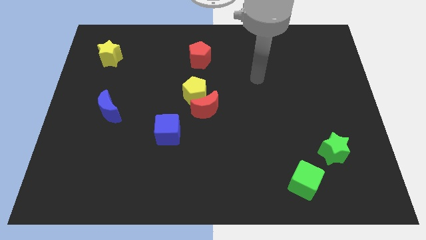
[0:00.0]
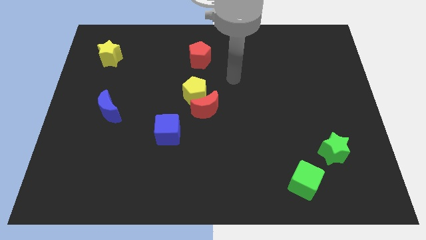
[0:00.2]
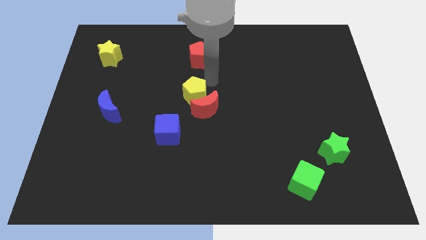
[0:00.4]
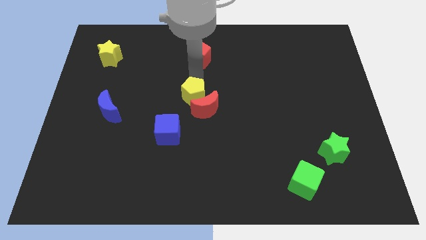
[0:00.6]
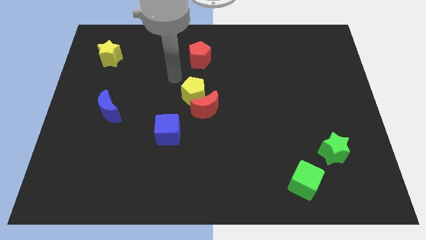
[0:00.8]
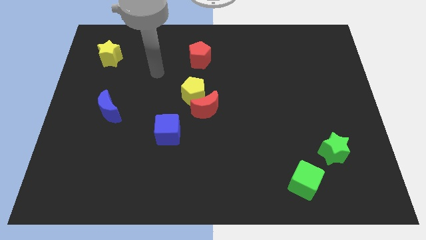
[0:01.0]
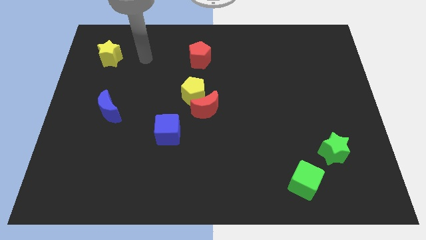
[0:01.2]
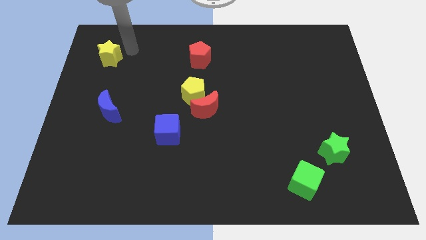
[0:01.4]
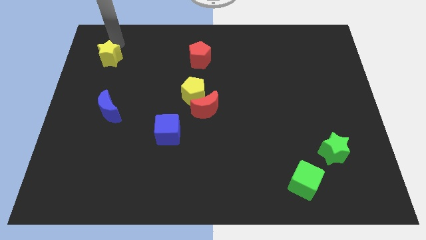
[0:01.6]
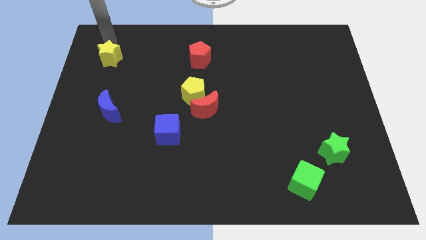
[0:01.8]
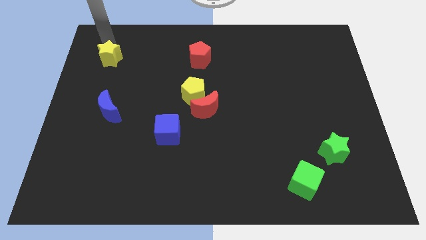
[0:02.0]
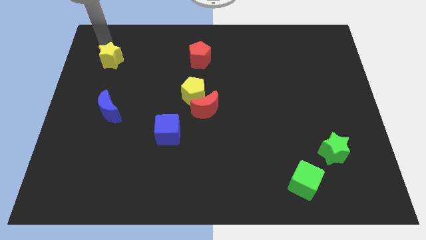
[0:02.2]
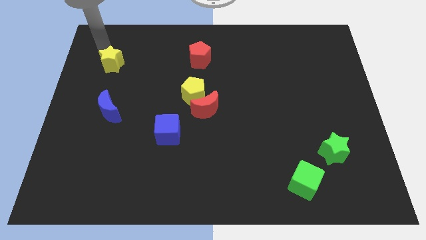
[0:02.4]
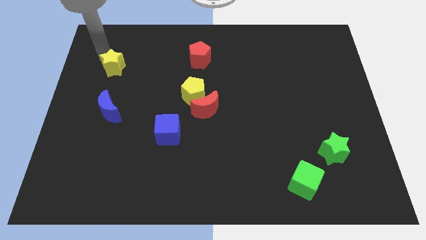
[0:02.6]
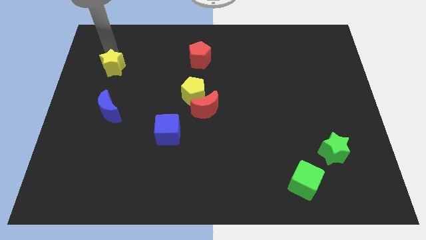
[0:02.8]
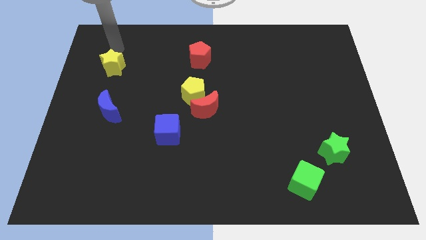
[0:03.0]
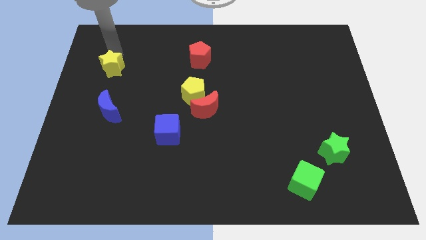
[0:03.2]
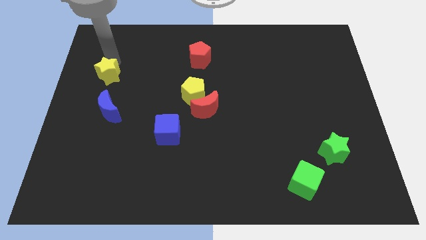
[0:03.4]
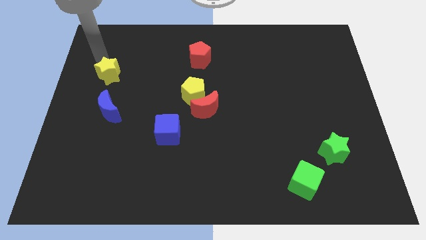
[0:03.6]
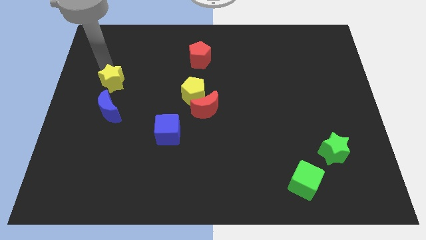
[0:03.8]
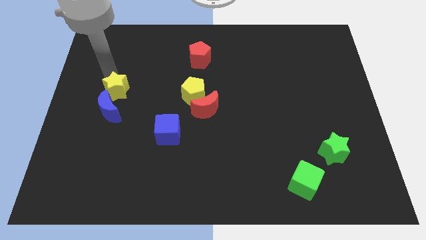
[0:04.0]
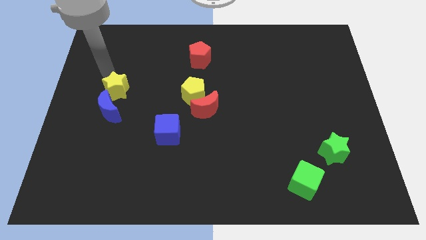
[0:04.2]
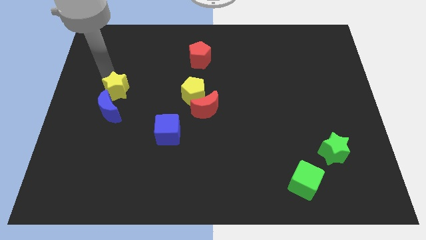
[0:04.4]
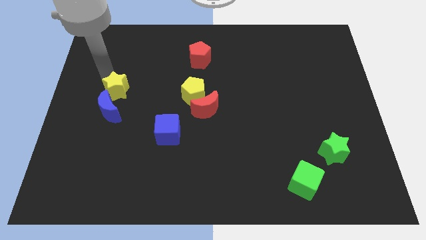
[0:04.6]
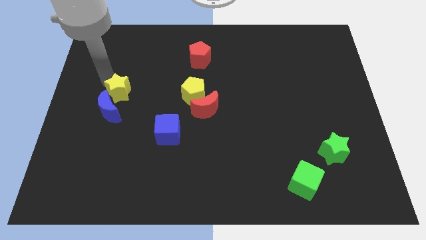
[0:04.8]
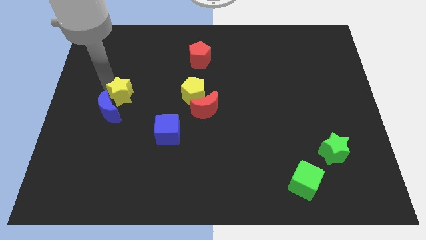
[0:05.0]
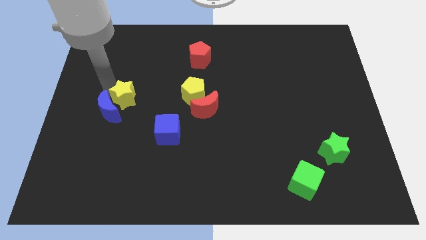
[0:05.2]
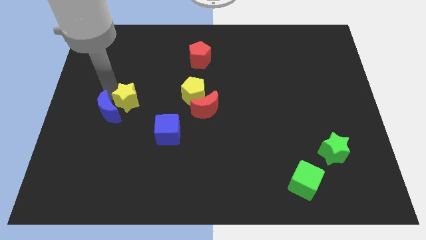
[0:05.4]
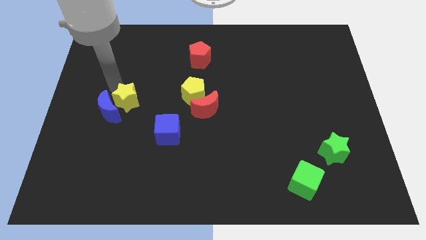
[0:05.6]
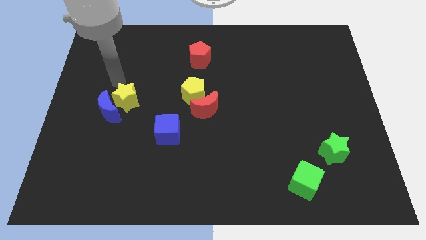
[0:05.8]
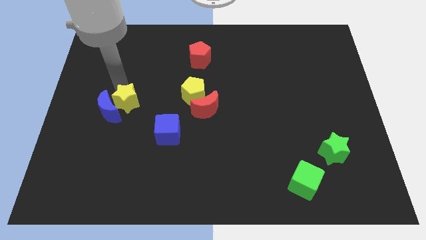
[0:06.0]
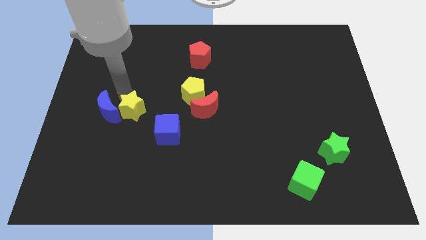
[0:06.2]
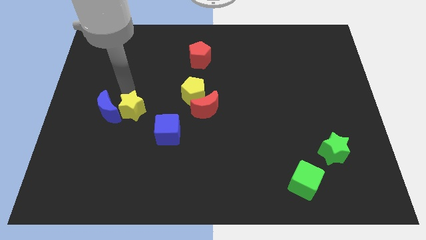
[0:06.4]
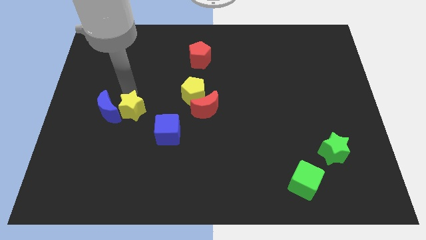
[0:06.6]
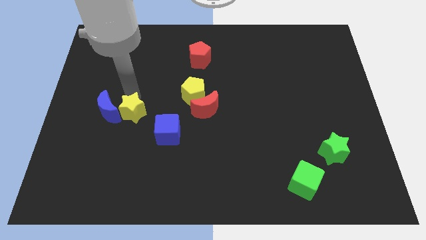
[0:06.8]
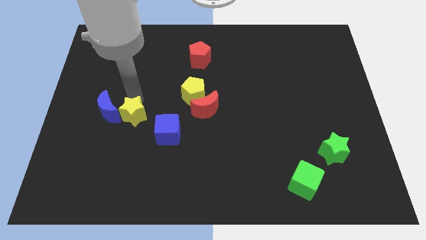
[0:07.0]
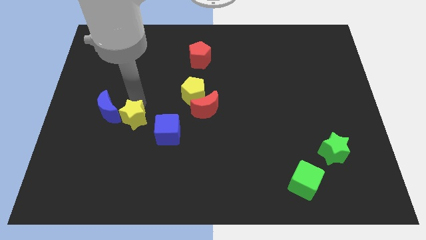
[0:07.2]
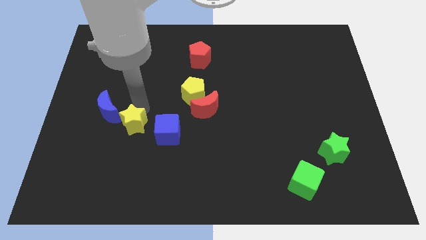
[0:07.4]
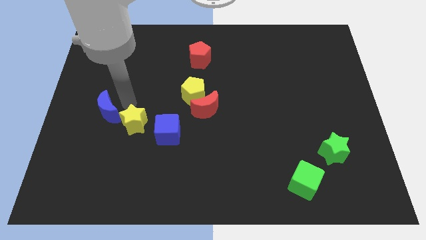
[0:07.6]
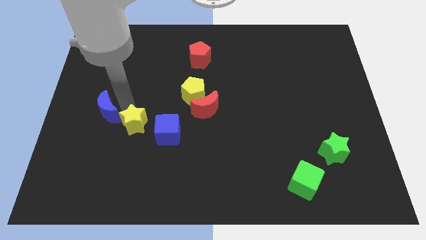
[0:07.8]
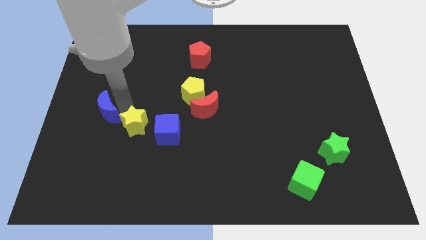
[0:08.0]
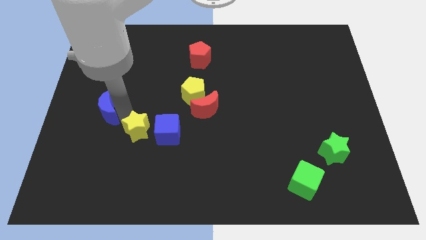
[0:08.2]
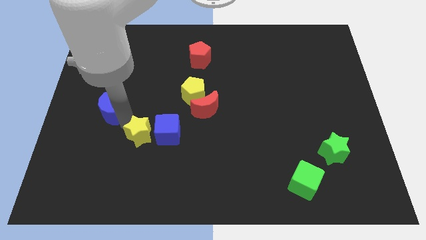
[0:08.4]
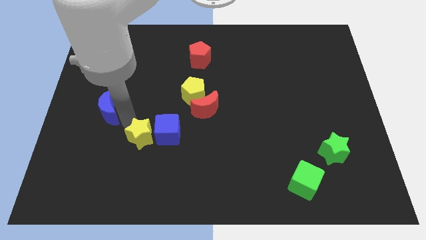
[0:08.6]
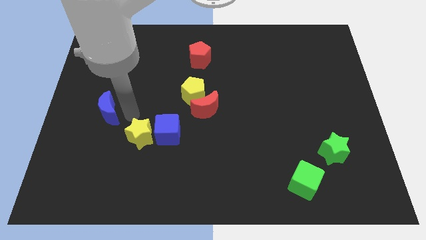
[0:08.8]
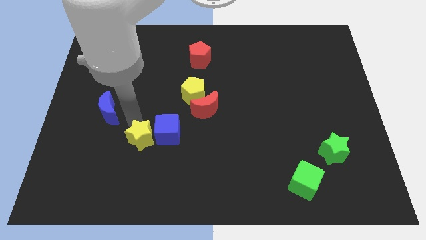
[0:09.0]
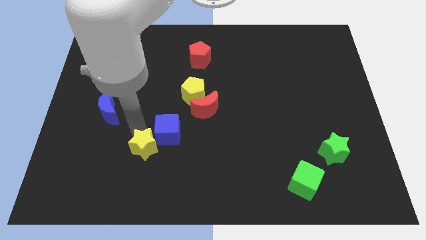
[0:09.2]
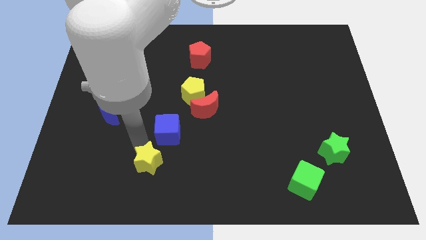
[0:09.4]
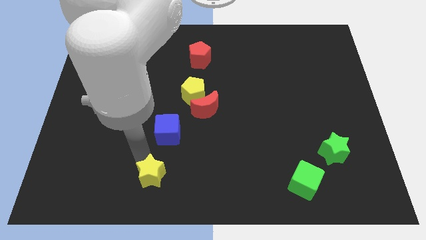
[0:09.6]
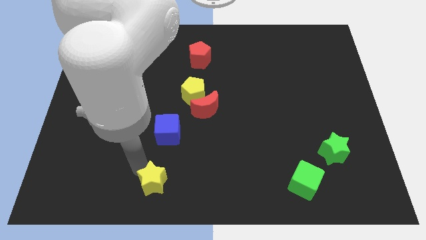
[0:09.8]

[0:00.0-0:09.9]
move the yellow star to the bottom side
